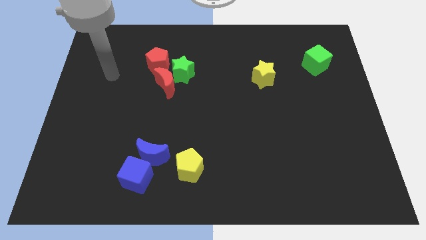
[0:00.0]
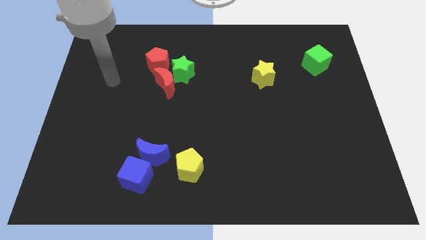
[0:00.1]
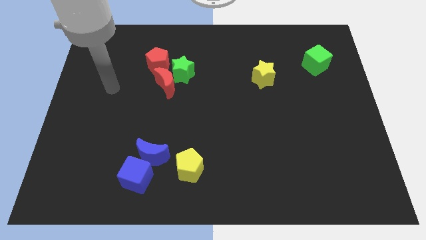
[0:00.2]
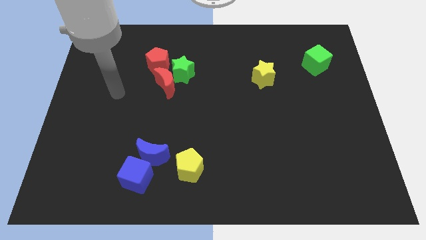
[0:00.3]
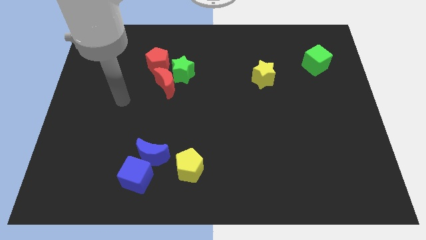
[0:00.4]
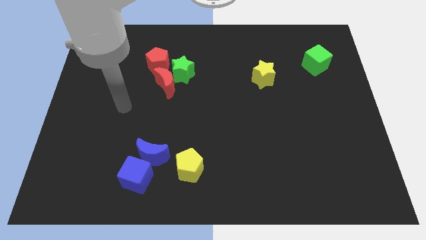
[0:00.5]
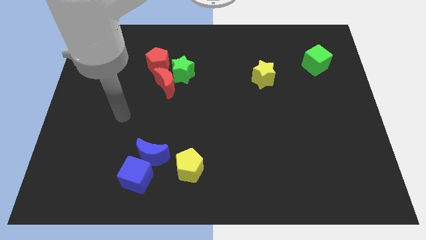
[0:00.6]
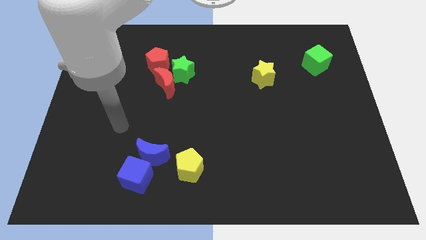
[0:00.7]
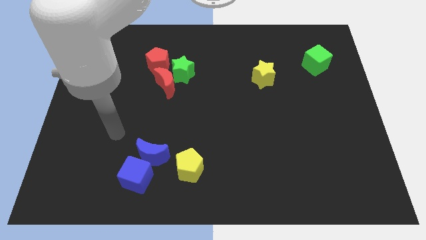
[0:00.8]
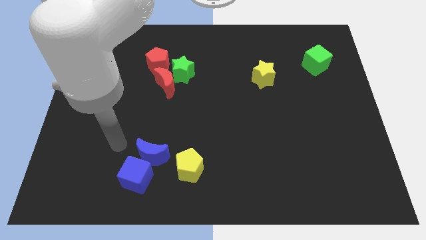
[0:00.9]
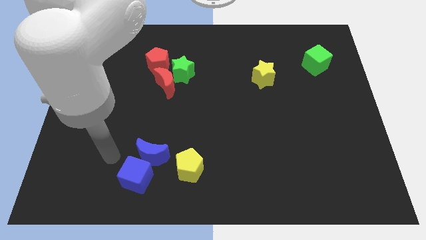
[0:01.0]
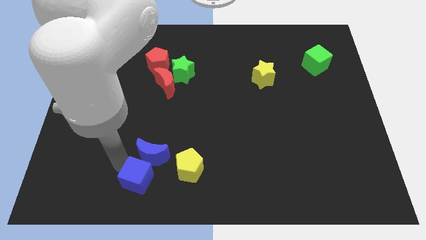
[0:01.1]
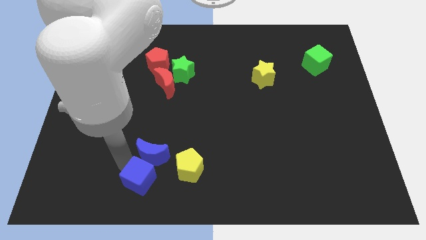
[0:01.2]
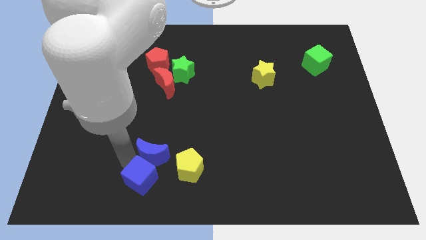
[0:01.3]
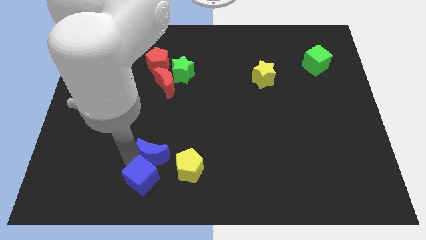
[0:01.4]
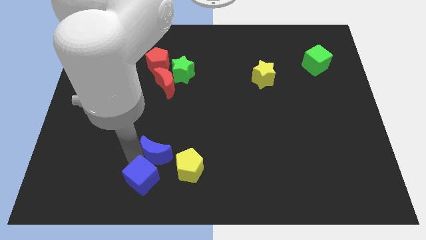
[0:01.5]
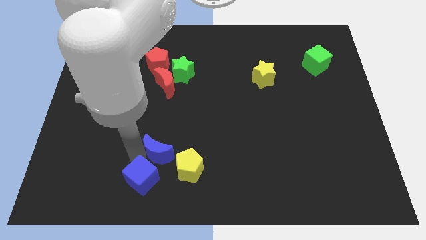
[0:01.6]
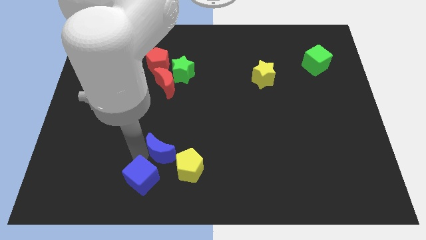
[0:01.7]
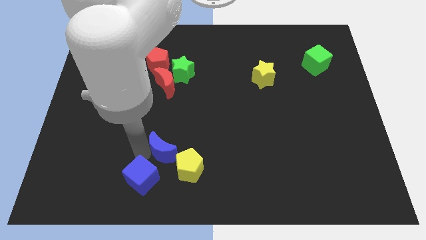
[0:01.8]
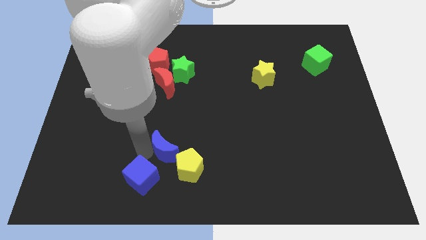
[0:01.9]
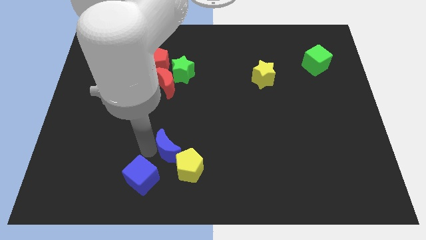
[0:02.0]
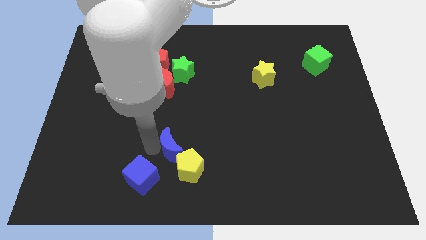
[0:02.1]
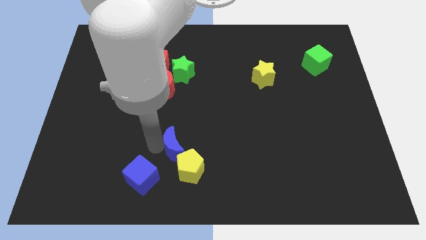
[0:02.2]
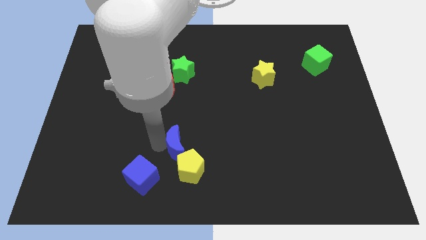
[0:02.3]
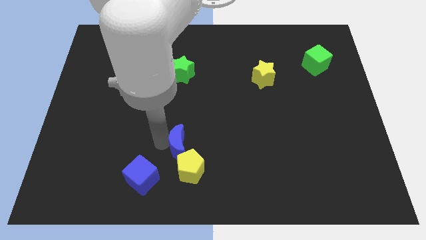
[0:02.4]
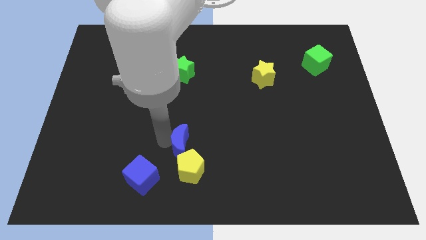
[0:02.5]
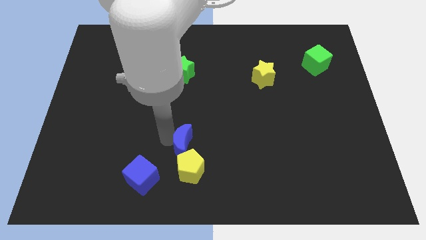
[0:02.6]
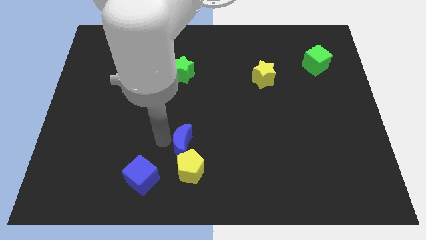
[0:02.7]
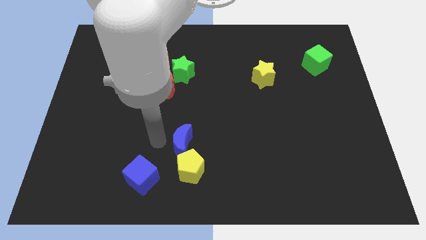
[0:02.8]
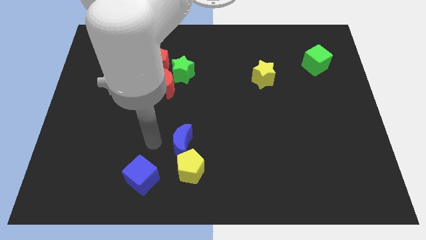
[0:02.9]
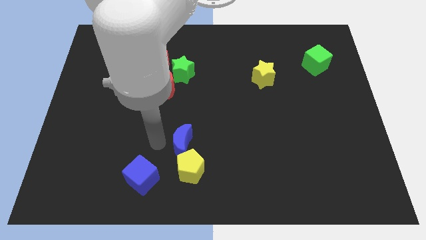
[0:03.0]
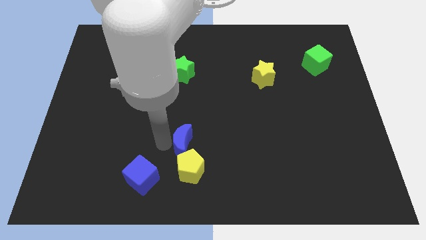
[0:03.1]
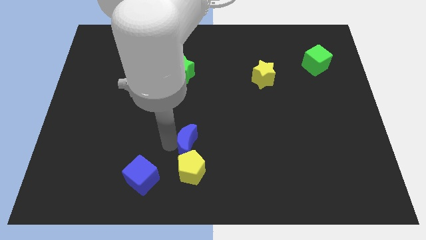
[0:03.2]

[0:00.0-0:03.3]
push the blue moon to the right a little

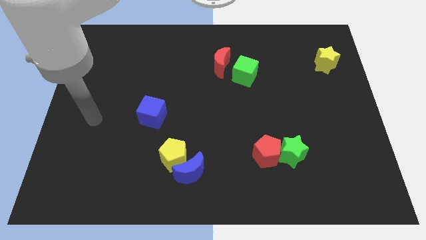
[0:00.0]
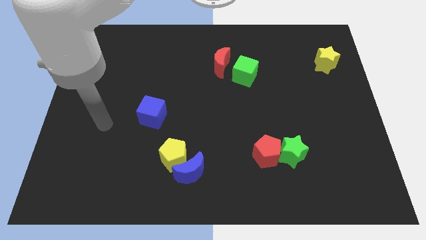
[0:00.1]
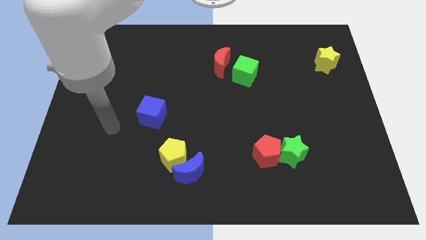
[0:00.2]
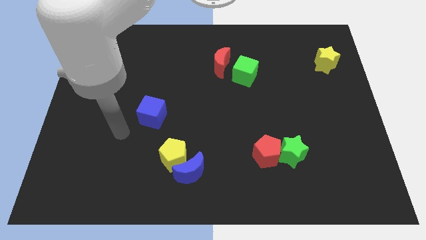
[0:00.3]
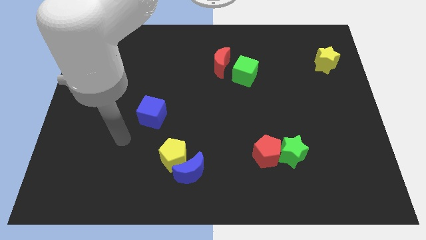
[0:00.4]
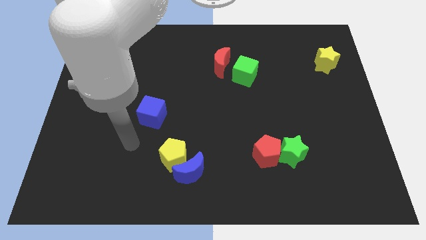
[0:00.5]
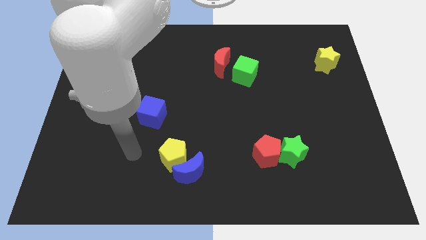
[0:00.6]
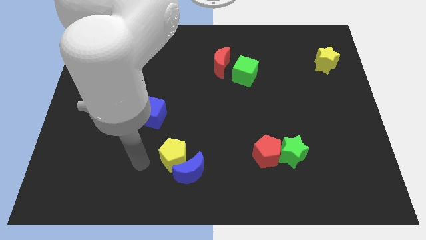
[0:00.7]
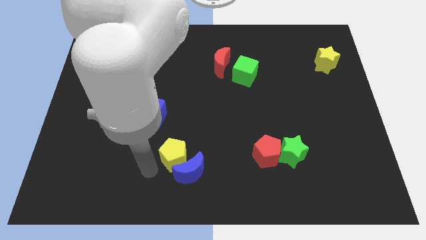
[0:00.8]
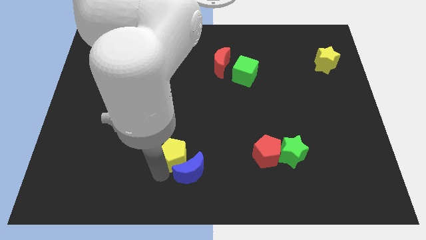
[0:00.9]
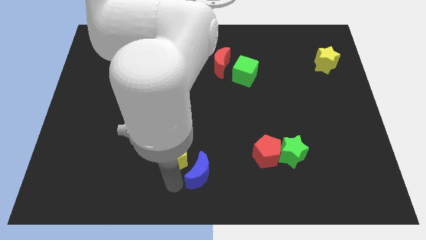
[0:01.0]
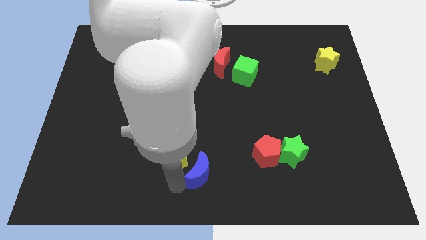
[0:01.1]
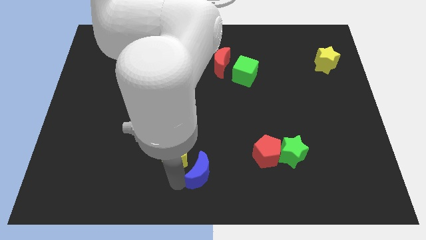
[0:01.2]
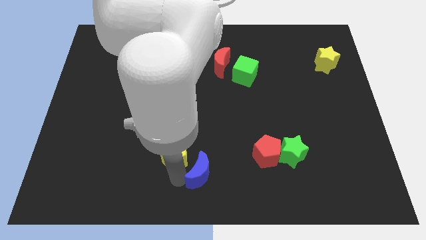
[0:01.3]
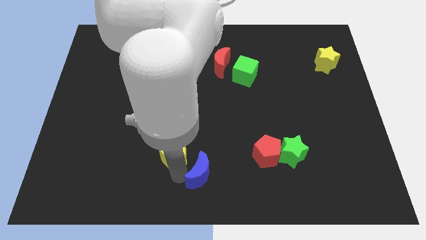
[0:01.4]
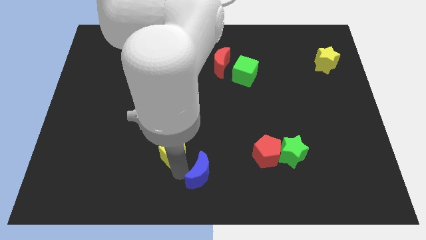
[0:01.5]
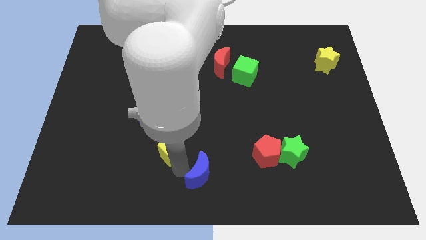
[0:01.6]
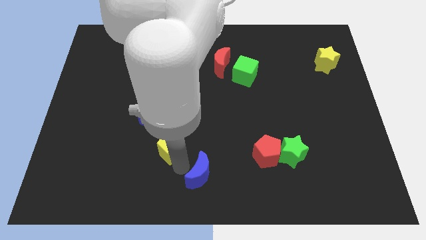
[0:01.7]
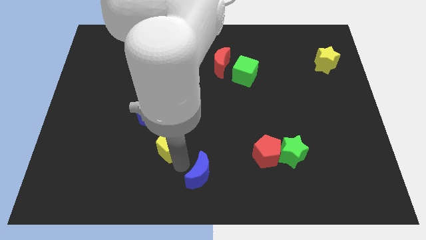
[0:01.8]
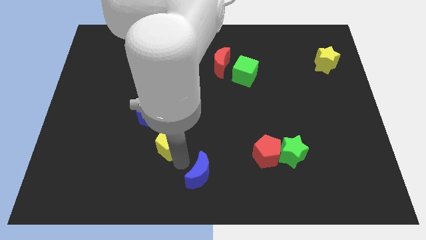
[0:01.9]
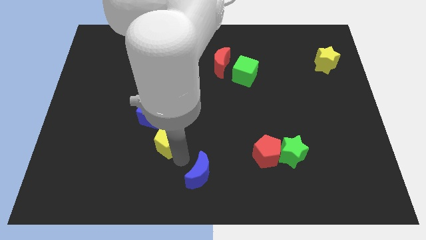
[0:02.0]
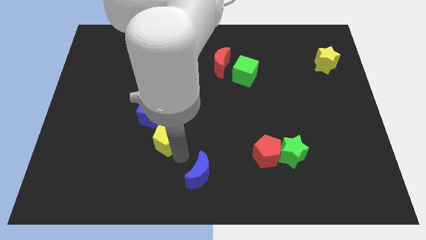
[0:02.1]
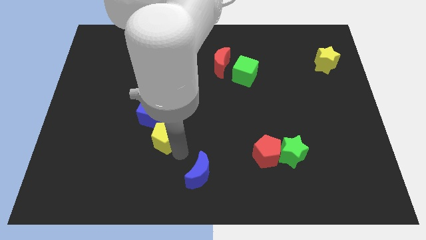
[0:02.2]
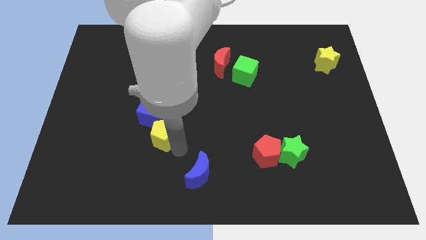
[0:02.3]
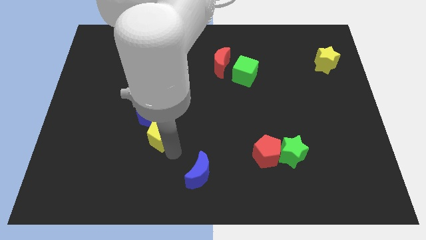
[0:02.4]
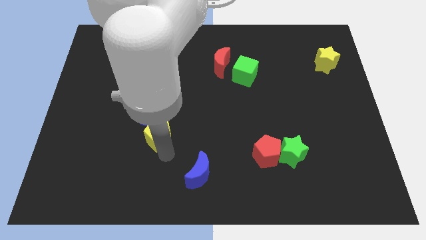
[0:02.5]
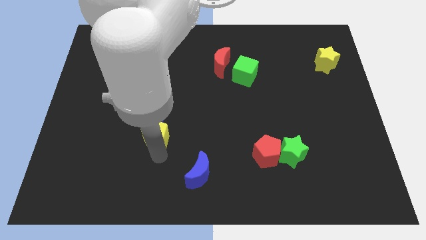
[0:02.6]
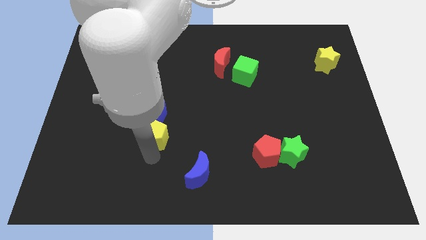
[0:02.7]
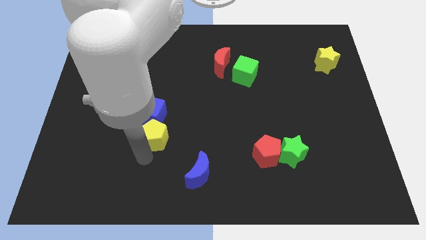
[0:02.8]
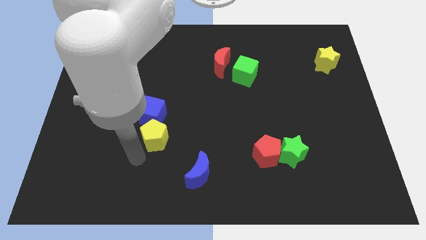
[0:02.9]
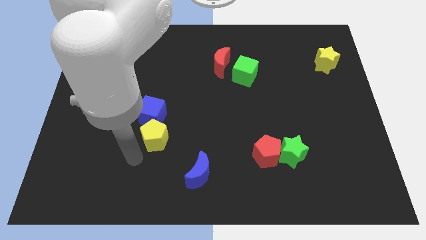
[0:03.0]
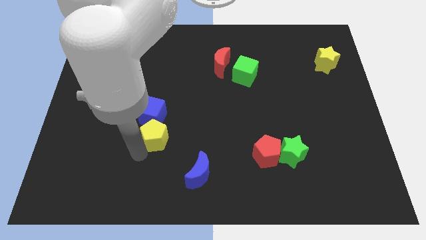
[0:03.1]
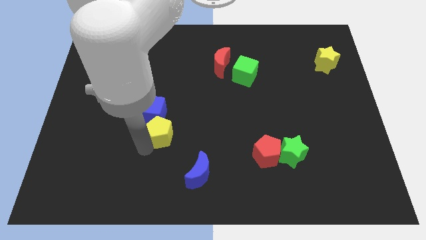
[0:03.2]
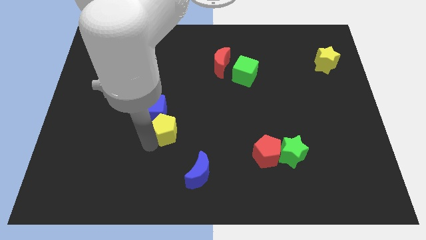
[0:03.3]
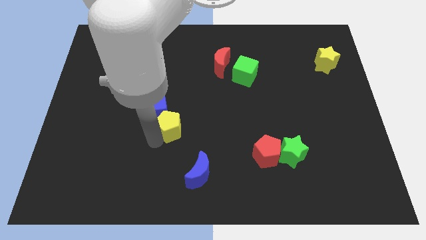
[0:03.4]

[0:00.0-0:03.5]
slightly slide the yellow pentagon up

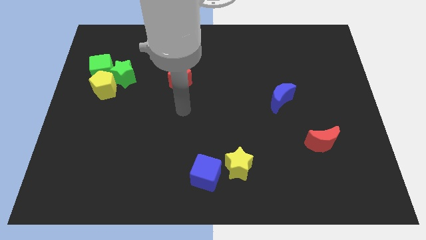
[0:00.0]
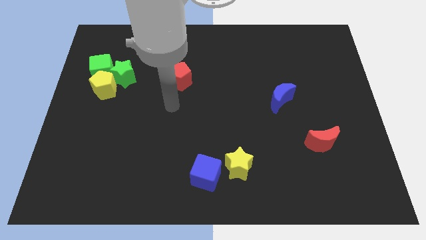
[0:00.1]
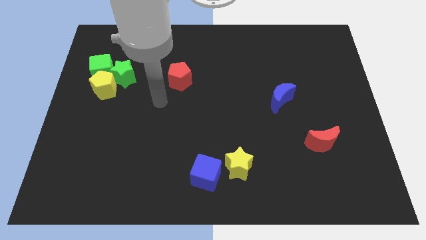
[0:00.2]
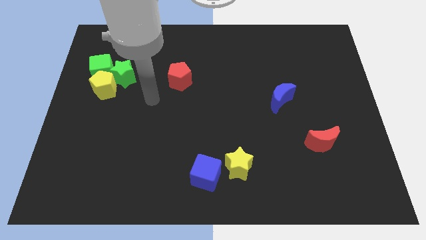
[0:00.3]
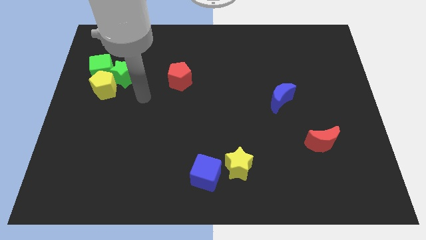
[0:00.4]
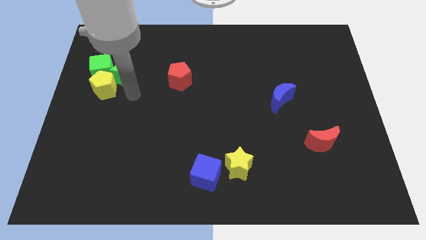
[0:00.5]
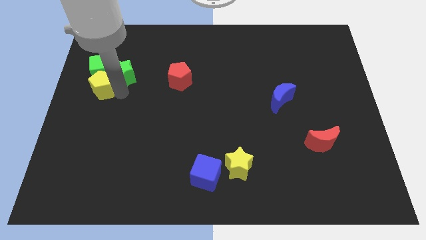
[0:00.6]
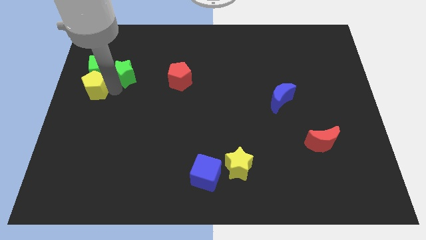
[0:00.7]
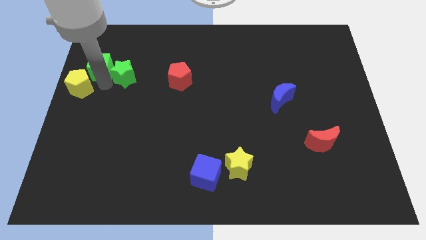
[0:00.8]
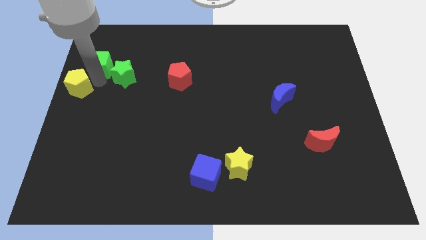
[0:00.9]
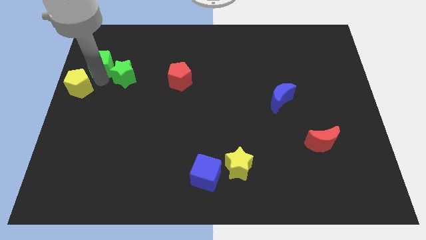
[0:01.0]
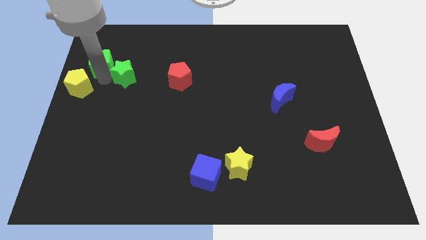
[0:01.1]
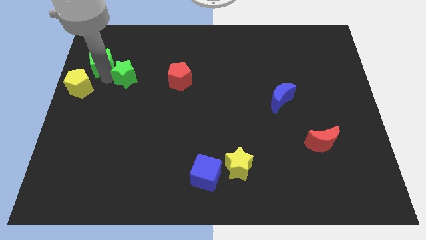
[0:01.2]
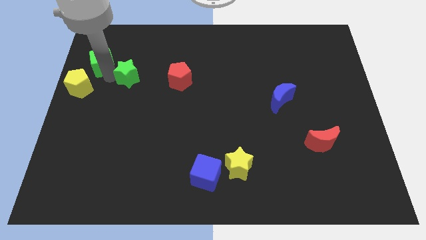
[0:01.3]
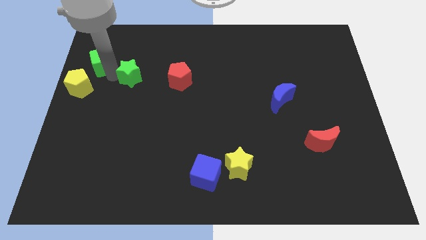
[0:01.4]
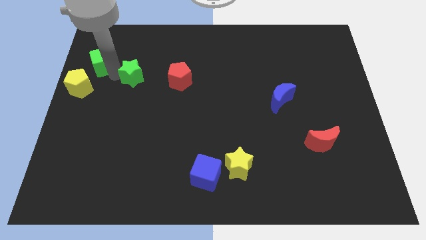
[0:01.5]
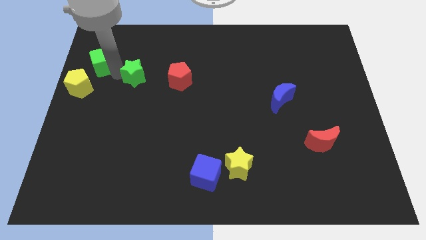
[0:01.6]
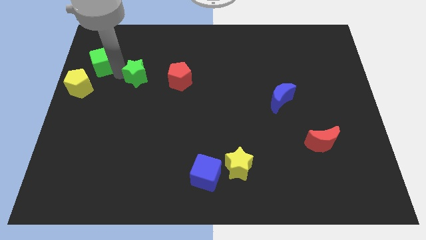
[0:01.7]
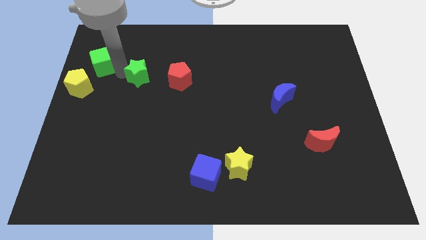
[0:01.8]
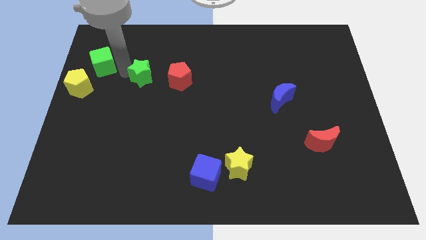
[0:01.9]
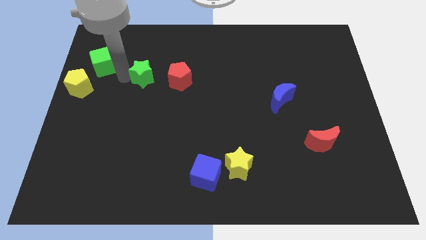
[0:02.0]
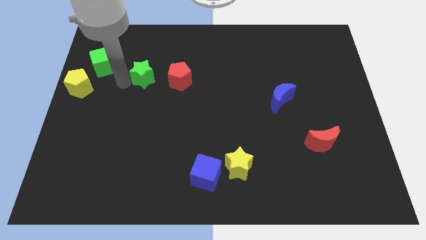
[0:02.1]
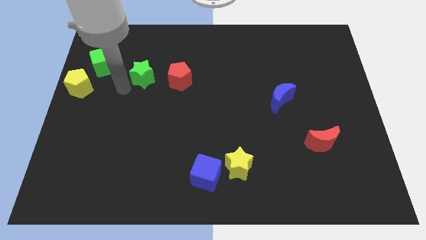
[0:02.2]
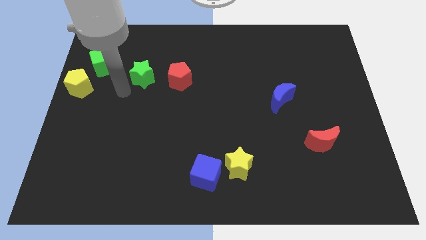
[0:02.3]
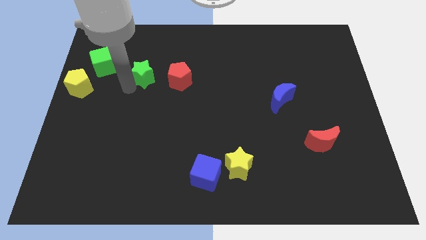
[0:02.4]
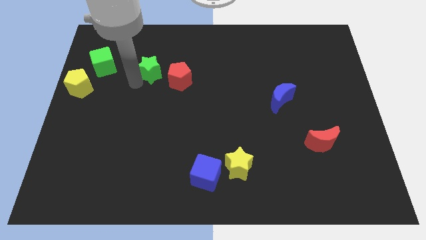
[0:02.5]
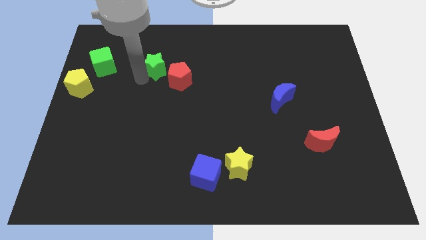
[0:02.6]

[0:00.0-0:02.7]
slide the green star right a little
